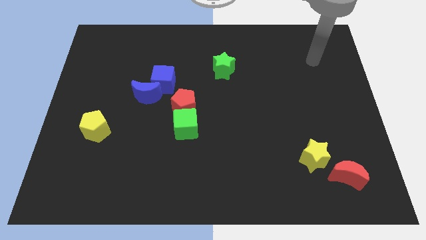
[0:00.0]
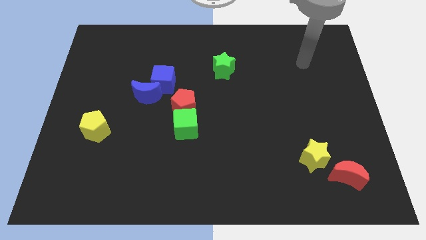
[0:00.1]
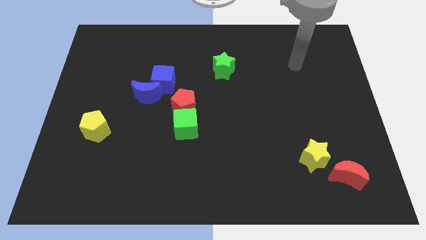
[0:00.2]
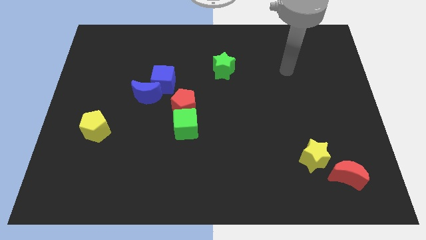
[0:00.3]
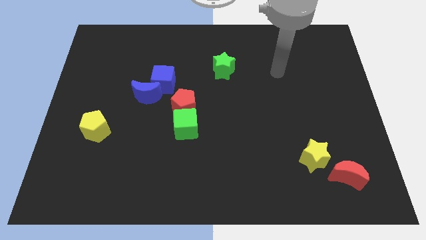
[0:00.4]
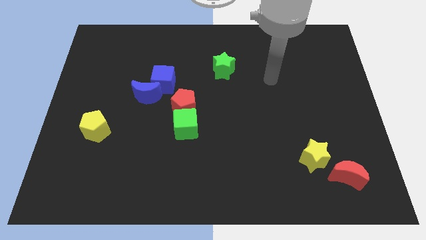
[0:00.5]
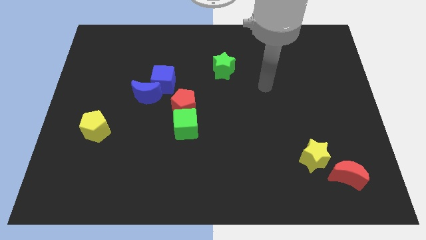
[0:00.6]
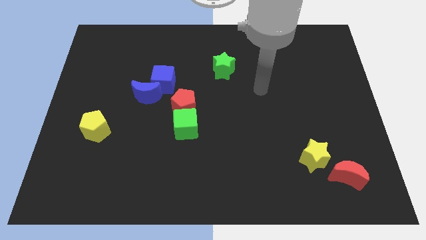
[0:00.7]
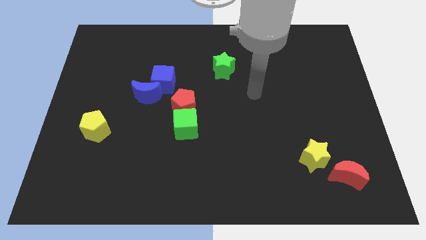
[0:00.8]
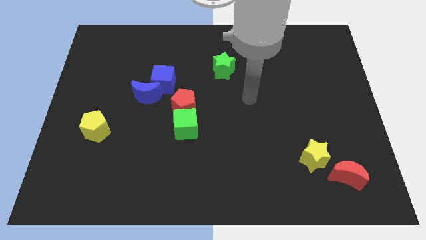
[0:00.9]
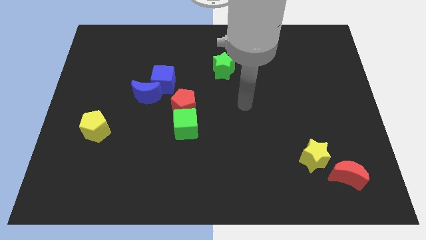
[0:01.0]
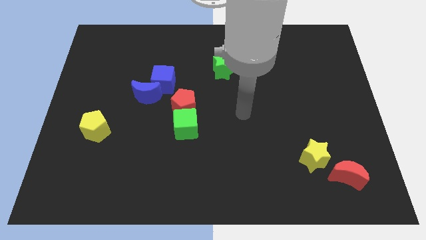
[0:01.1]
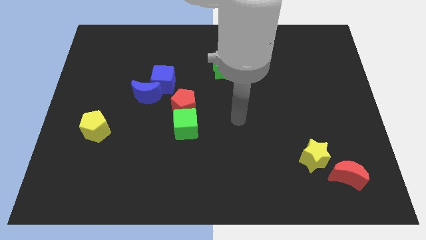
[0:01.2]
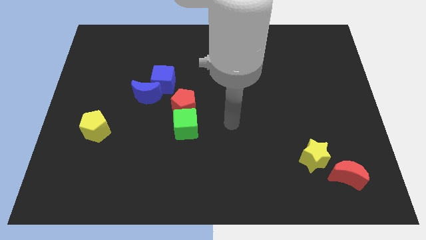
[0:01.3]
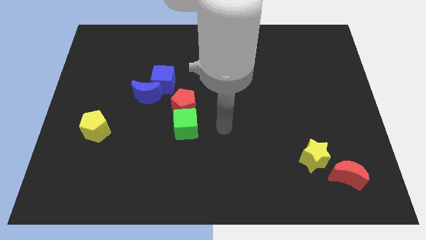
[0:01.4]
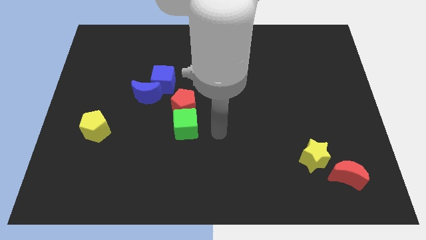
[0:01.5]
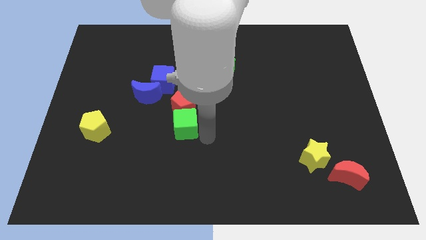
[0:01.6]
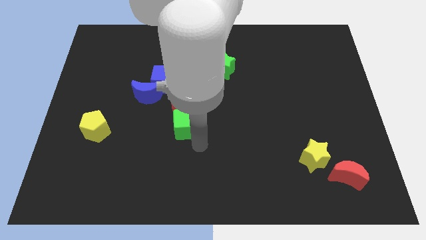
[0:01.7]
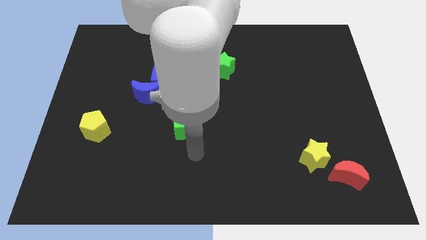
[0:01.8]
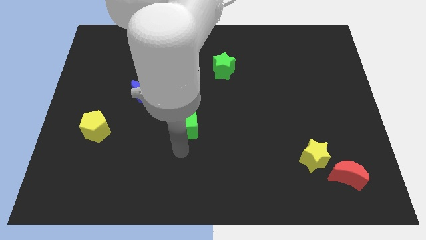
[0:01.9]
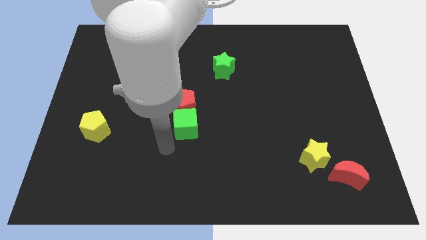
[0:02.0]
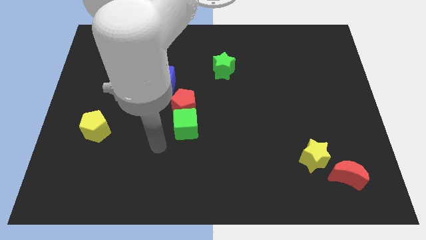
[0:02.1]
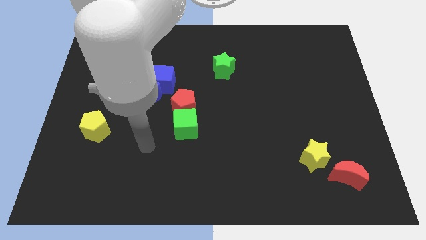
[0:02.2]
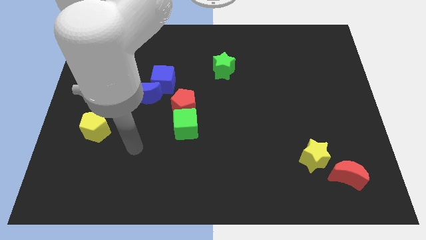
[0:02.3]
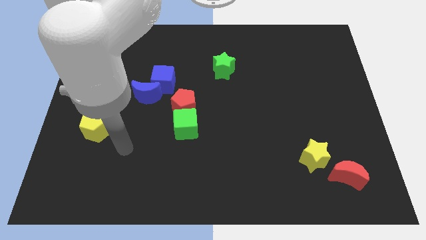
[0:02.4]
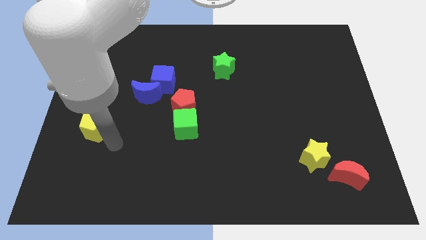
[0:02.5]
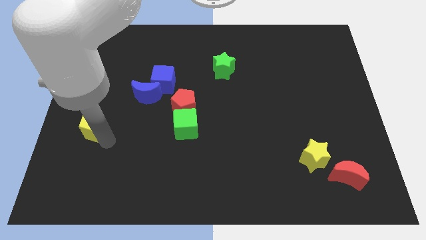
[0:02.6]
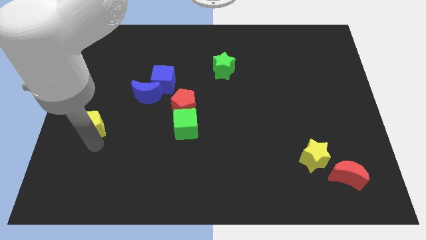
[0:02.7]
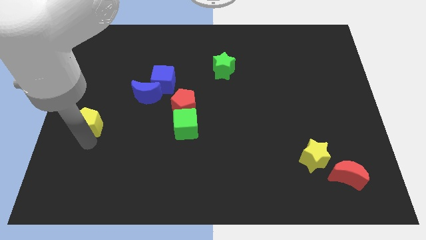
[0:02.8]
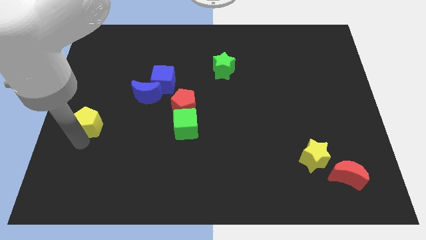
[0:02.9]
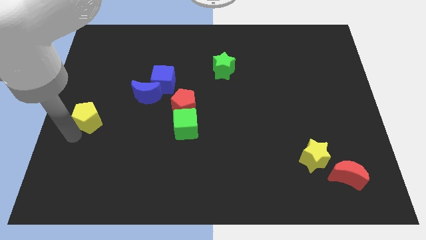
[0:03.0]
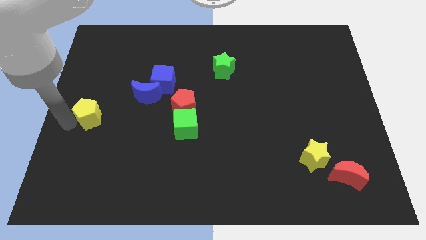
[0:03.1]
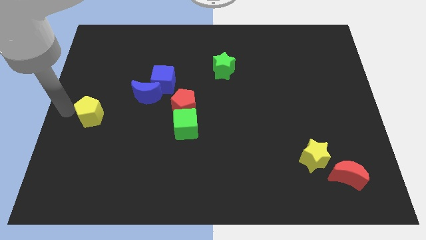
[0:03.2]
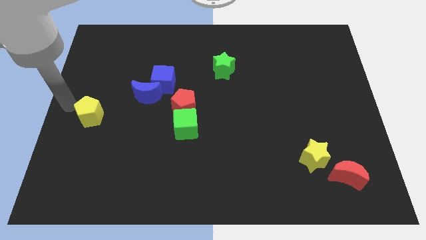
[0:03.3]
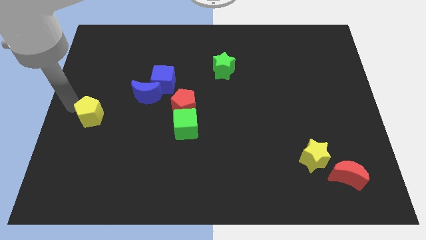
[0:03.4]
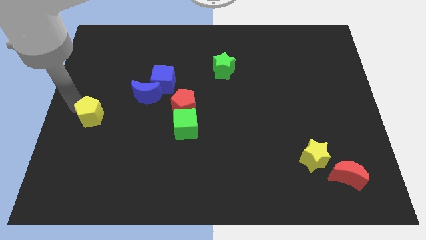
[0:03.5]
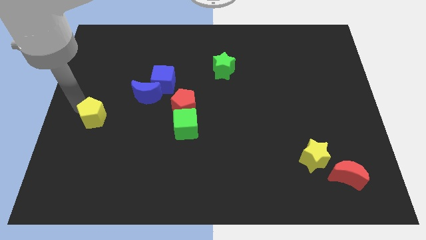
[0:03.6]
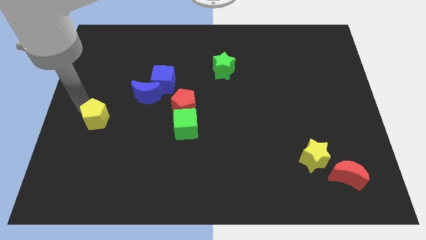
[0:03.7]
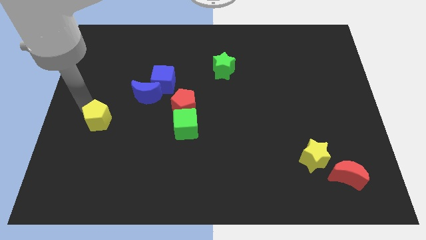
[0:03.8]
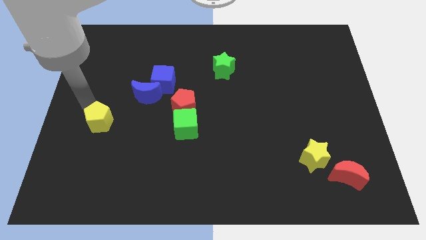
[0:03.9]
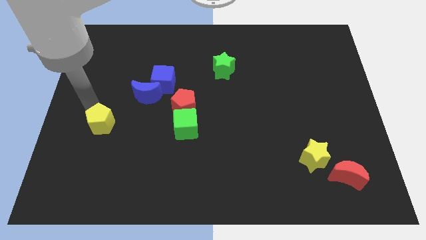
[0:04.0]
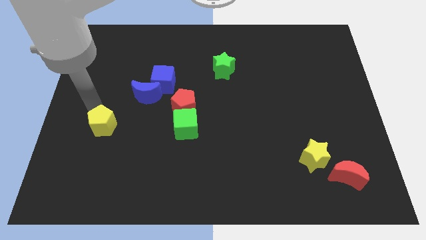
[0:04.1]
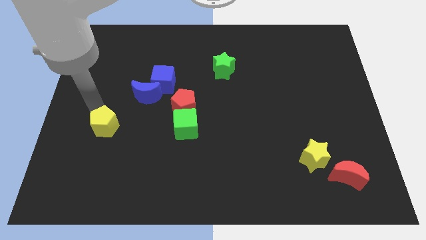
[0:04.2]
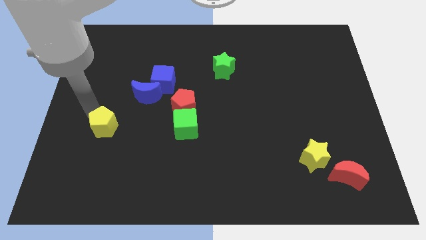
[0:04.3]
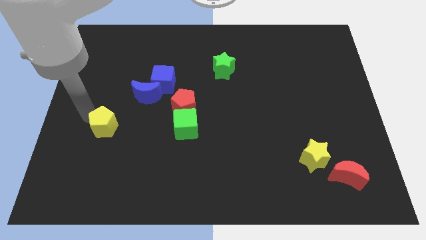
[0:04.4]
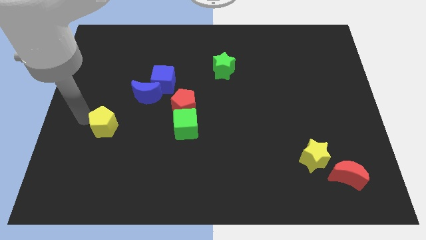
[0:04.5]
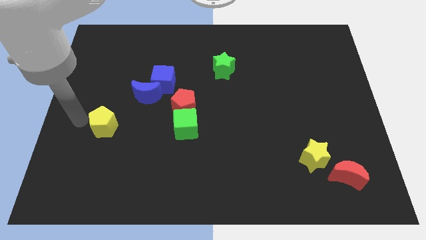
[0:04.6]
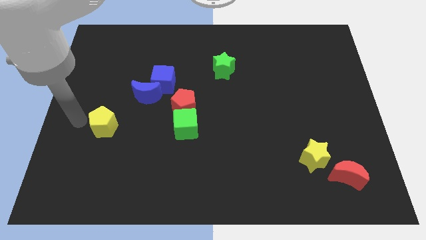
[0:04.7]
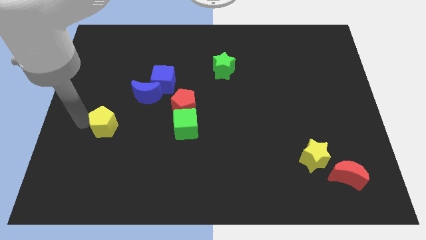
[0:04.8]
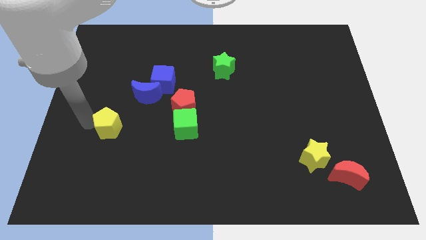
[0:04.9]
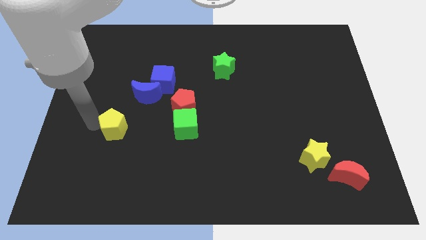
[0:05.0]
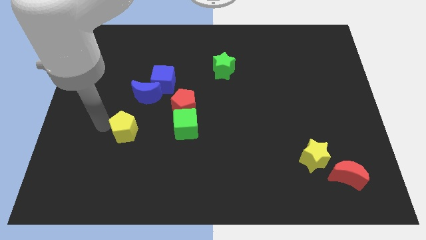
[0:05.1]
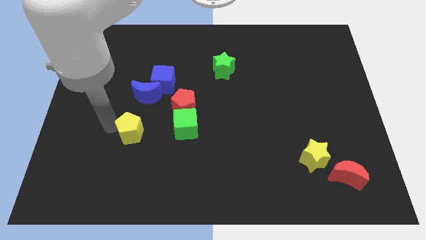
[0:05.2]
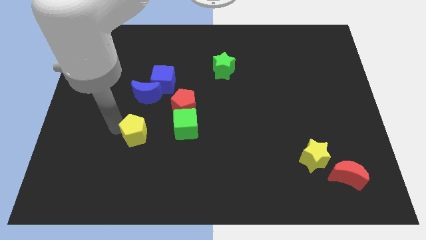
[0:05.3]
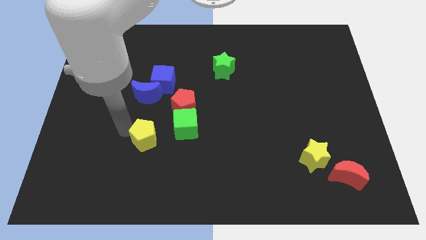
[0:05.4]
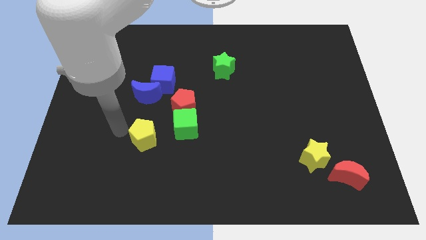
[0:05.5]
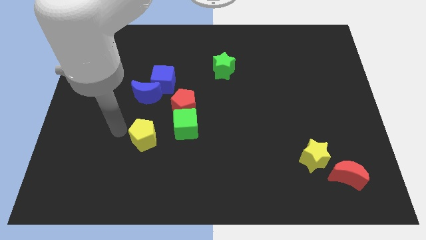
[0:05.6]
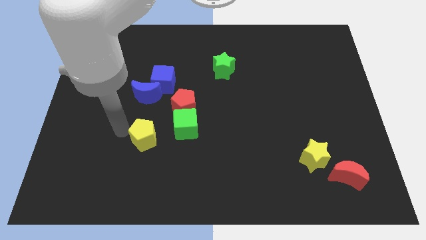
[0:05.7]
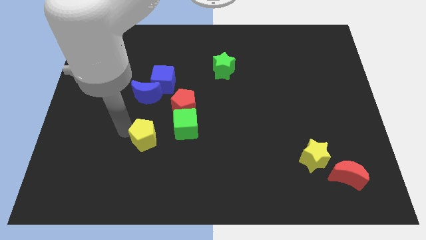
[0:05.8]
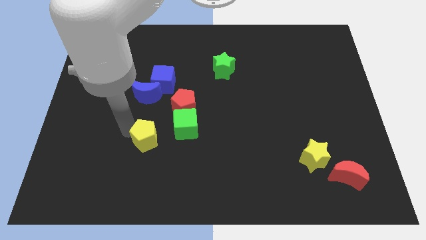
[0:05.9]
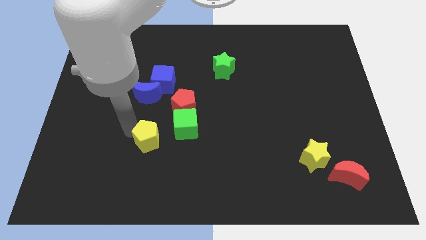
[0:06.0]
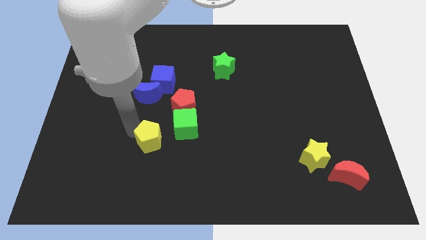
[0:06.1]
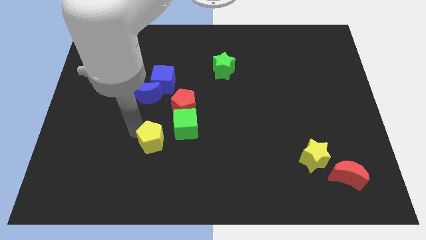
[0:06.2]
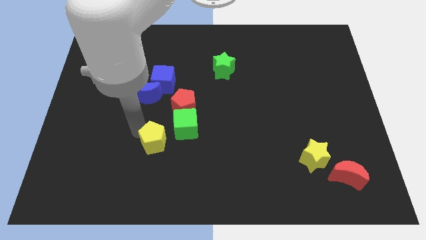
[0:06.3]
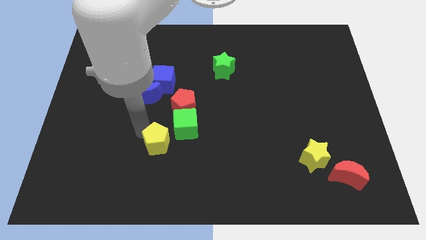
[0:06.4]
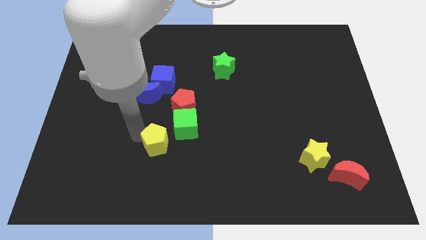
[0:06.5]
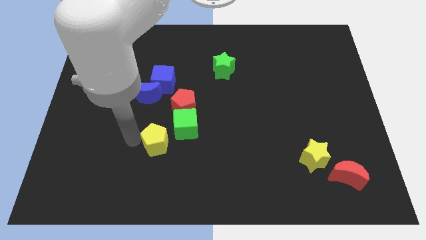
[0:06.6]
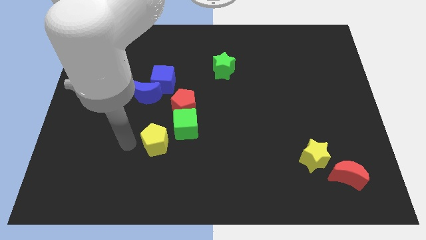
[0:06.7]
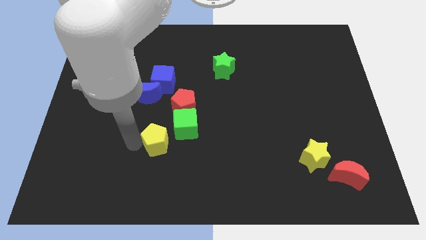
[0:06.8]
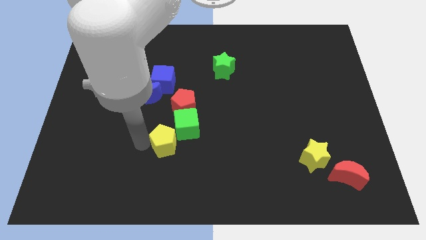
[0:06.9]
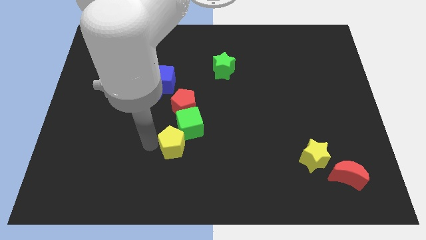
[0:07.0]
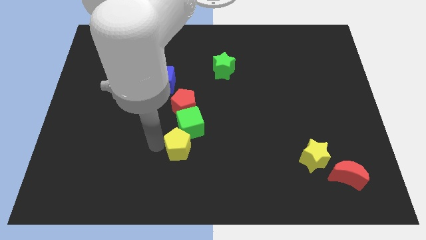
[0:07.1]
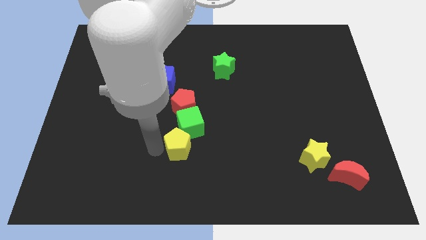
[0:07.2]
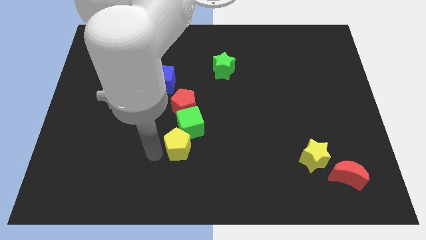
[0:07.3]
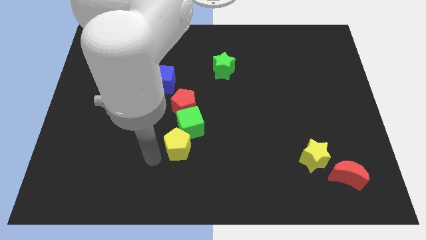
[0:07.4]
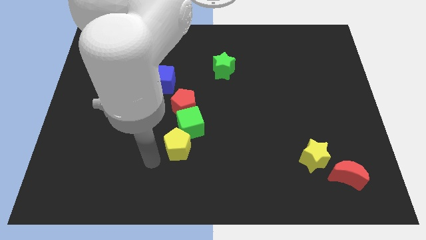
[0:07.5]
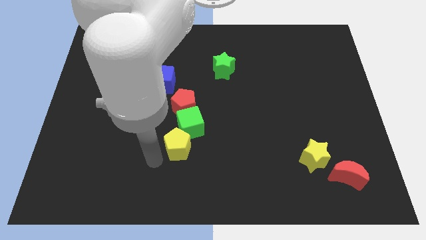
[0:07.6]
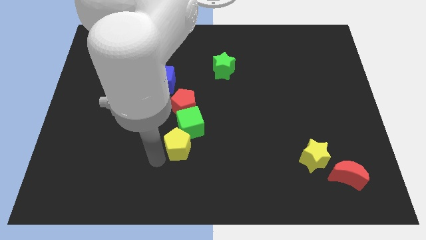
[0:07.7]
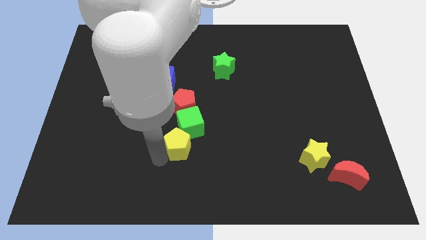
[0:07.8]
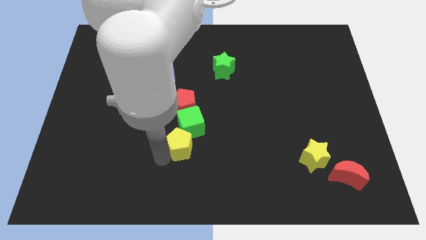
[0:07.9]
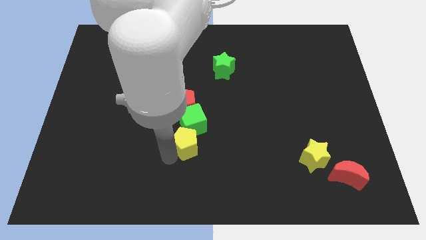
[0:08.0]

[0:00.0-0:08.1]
slide the yellow pentagon right
